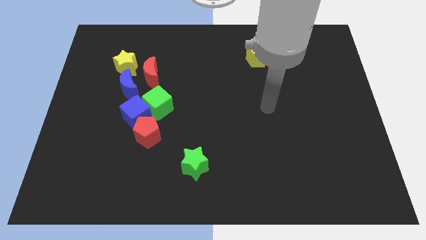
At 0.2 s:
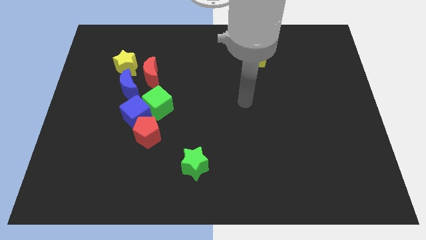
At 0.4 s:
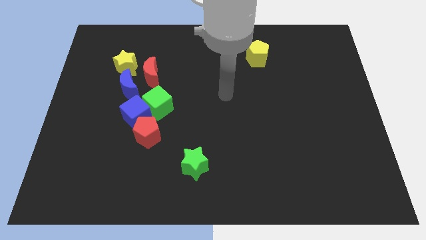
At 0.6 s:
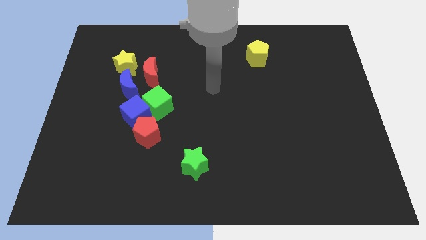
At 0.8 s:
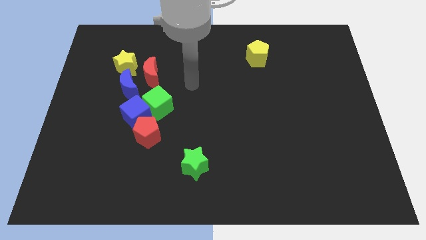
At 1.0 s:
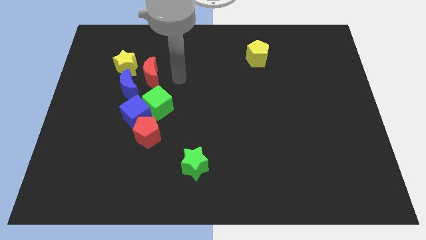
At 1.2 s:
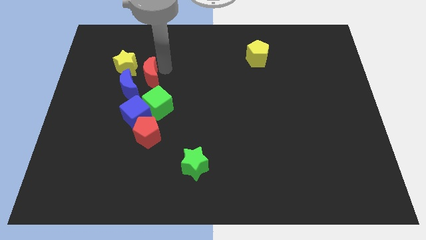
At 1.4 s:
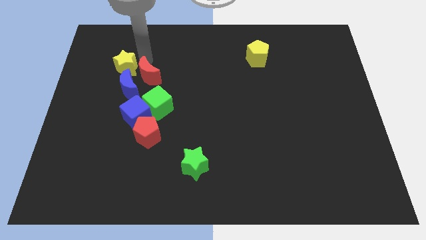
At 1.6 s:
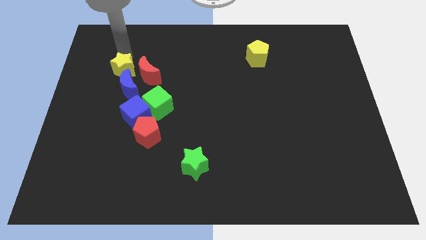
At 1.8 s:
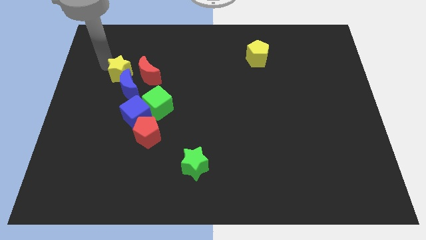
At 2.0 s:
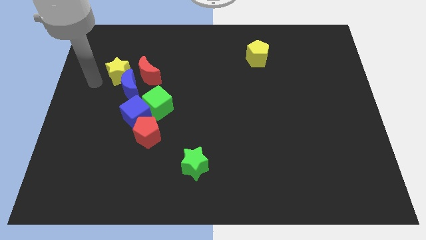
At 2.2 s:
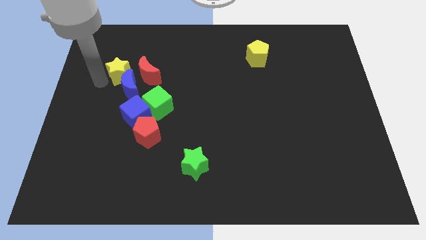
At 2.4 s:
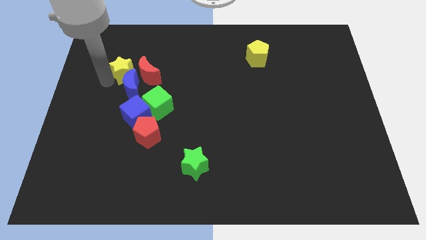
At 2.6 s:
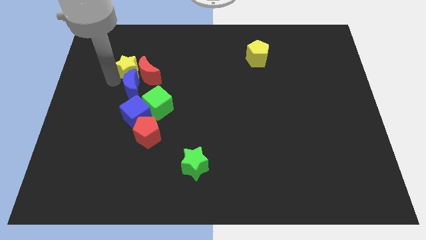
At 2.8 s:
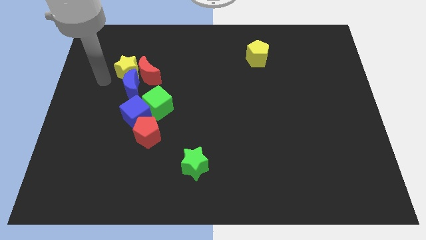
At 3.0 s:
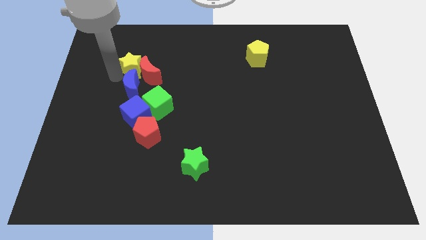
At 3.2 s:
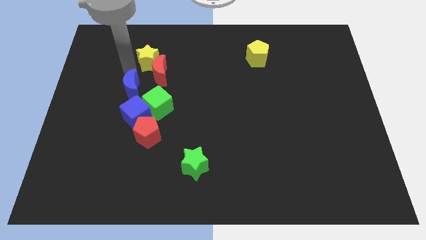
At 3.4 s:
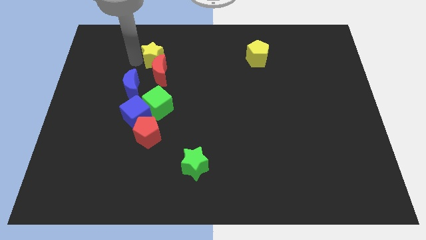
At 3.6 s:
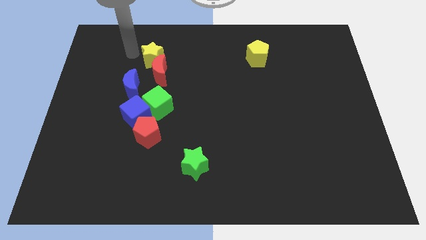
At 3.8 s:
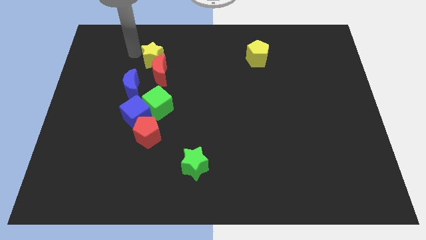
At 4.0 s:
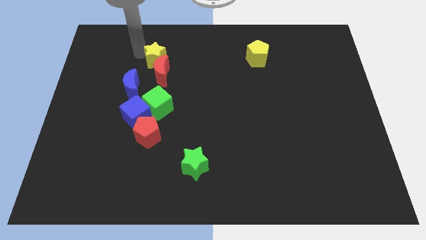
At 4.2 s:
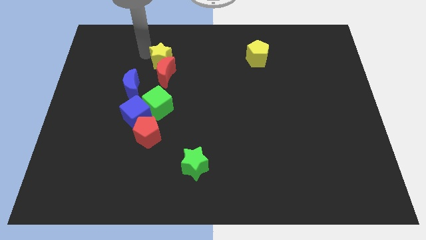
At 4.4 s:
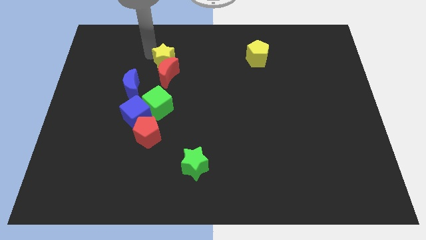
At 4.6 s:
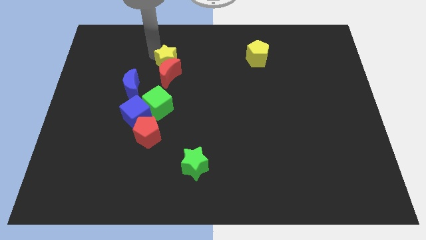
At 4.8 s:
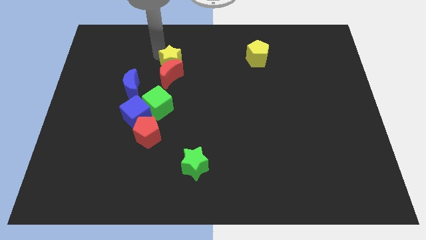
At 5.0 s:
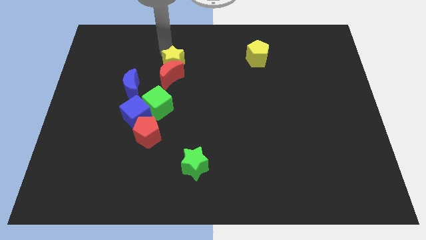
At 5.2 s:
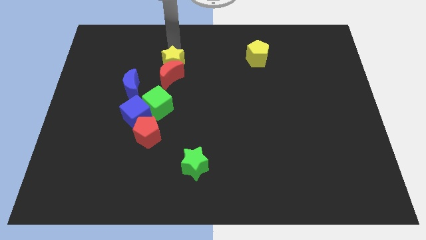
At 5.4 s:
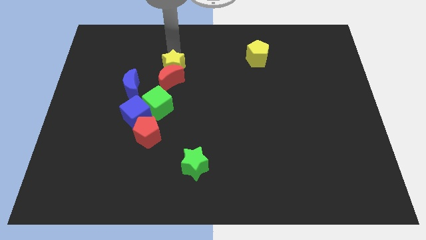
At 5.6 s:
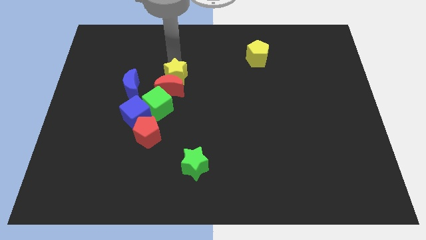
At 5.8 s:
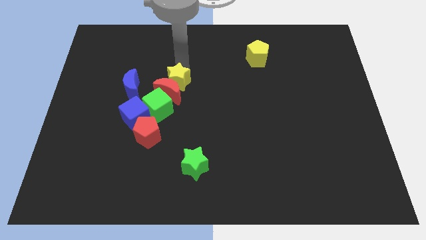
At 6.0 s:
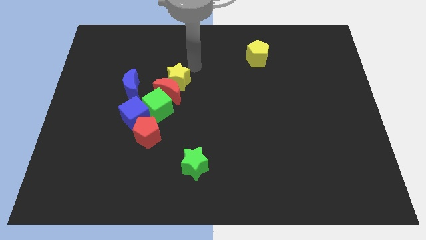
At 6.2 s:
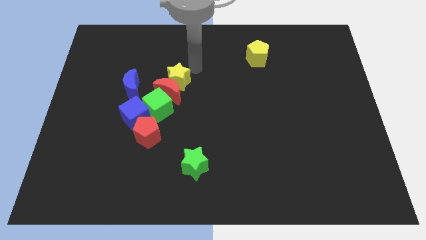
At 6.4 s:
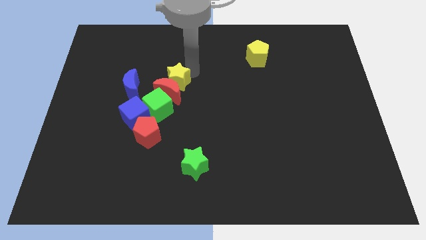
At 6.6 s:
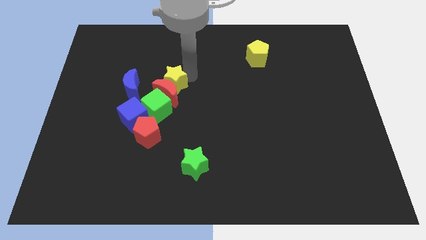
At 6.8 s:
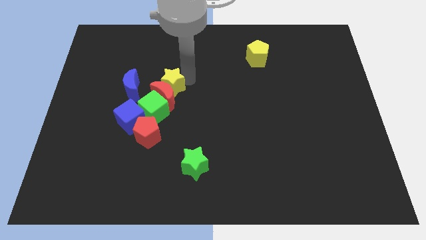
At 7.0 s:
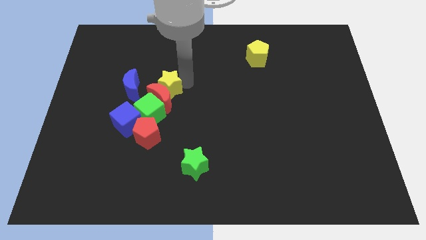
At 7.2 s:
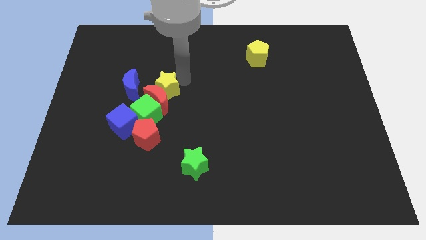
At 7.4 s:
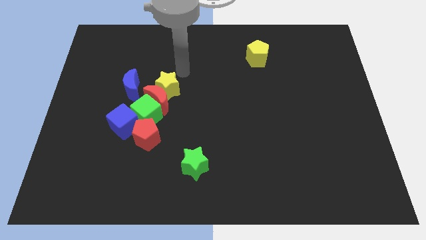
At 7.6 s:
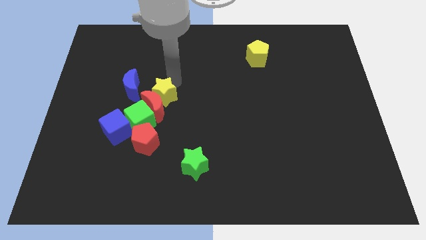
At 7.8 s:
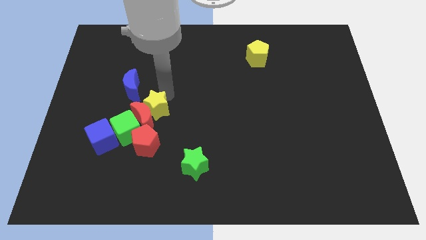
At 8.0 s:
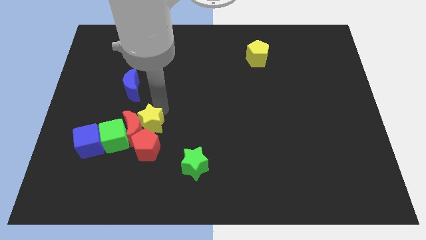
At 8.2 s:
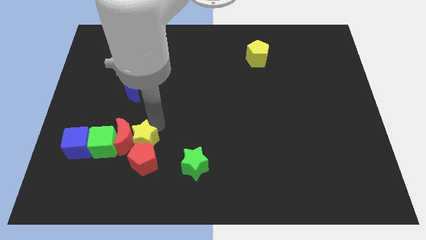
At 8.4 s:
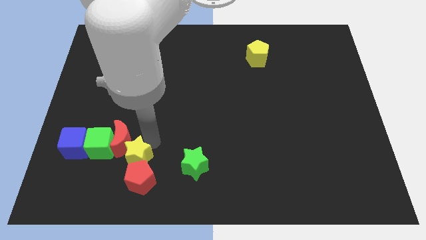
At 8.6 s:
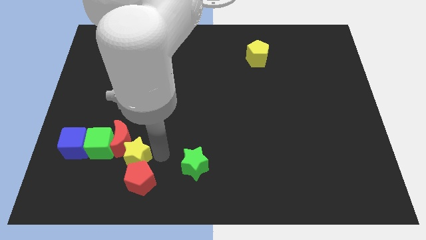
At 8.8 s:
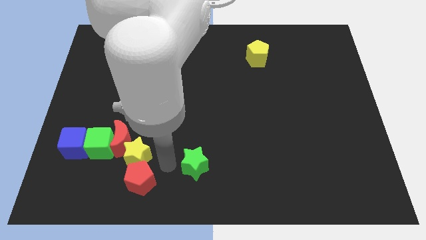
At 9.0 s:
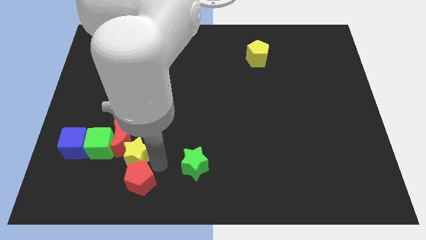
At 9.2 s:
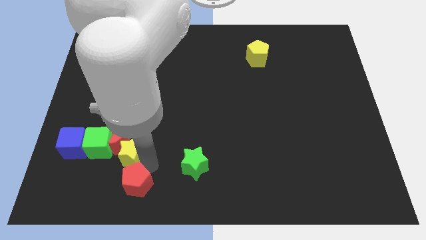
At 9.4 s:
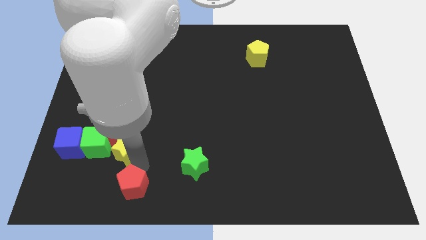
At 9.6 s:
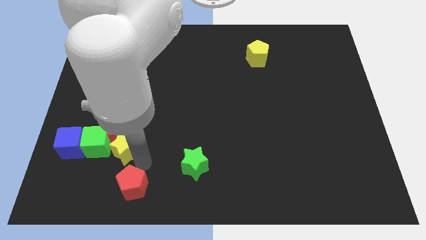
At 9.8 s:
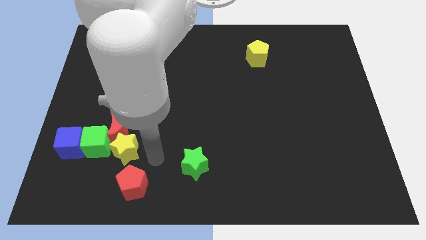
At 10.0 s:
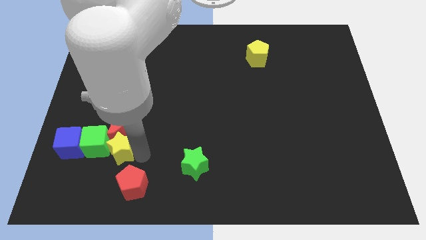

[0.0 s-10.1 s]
move the yellow star close to the green cube

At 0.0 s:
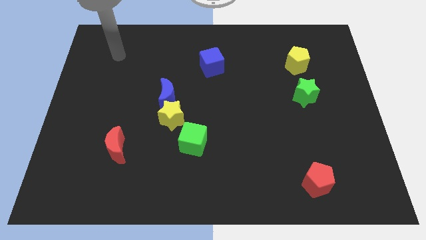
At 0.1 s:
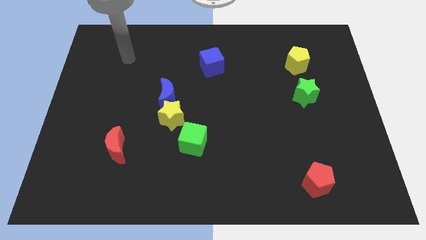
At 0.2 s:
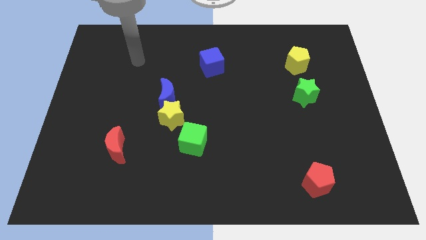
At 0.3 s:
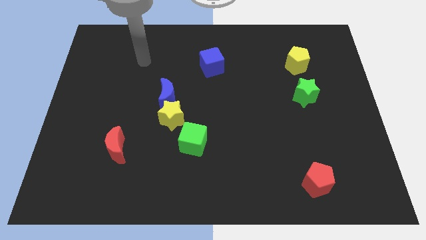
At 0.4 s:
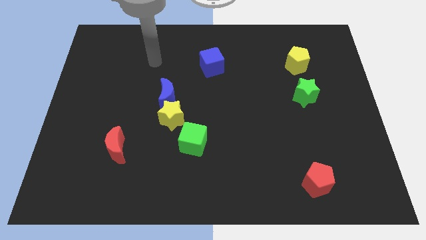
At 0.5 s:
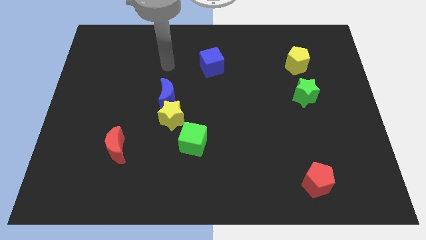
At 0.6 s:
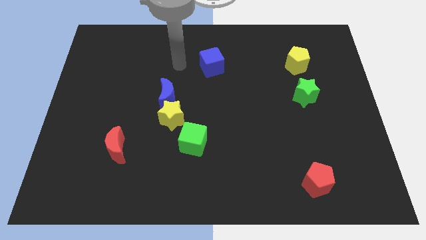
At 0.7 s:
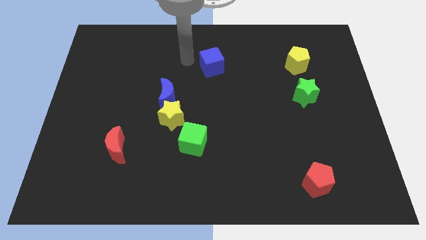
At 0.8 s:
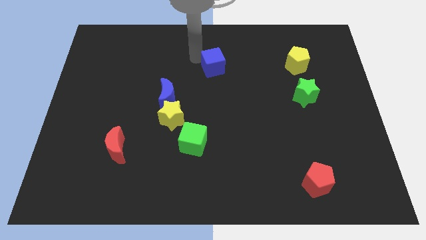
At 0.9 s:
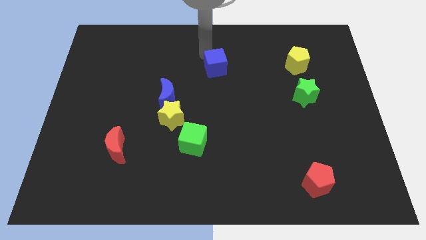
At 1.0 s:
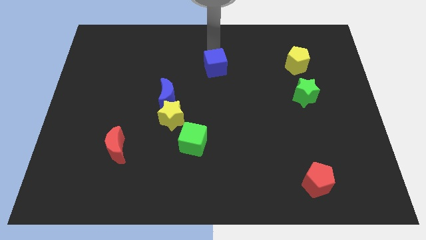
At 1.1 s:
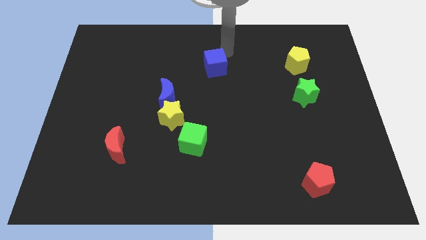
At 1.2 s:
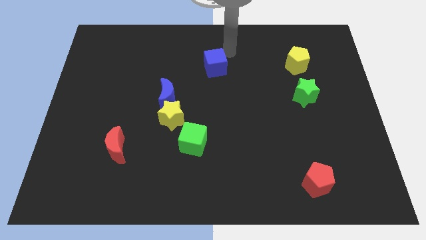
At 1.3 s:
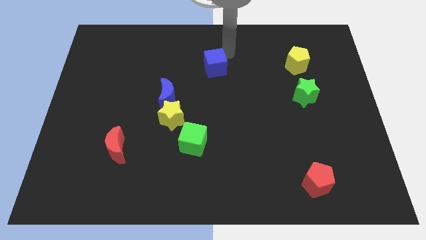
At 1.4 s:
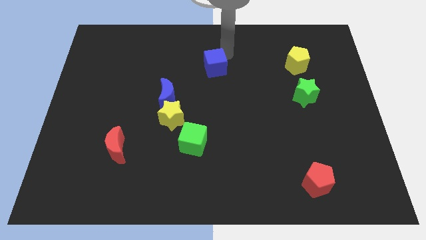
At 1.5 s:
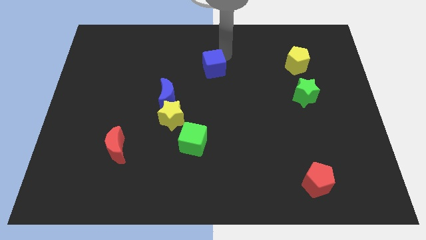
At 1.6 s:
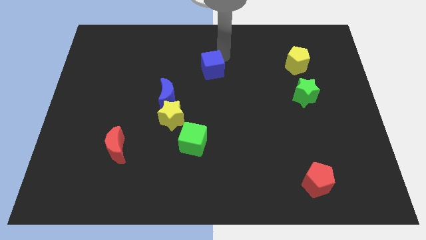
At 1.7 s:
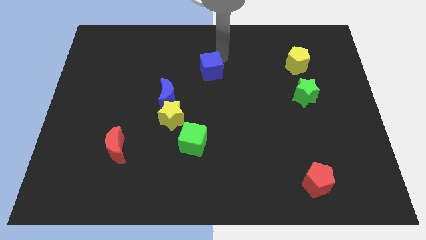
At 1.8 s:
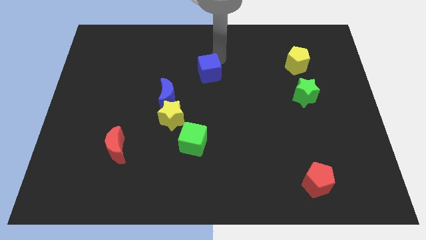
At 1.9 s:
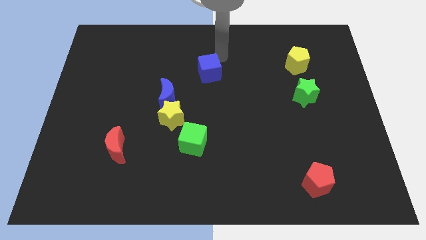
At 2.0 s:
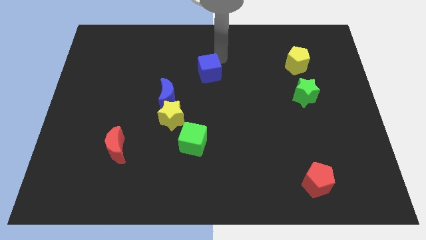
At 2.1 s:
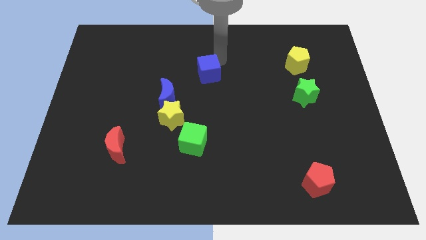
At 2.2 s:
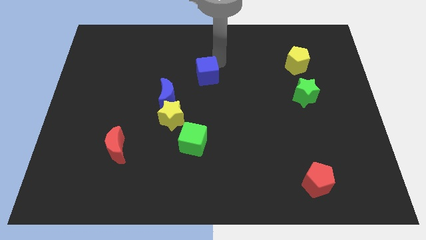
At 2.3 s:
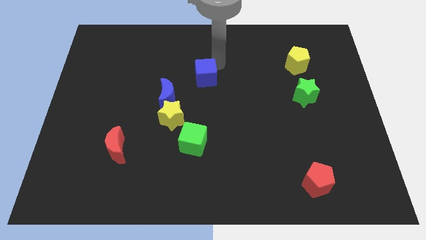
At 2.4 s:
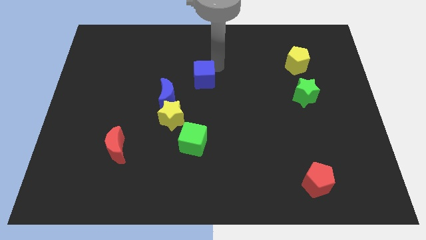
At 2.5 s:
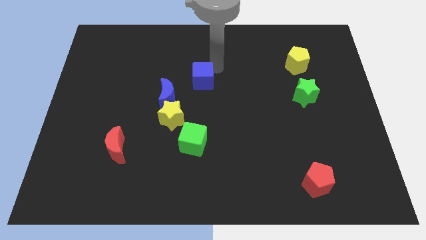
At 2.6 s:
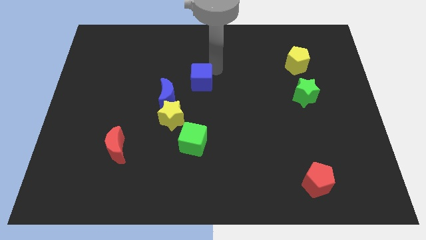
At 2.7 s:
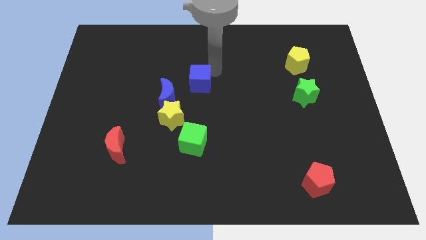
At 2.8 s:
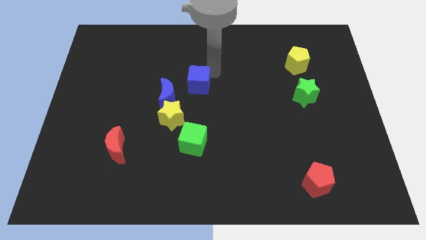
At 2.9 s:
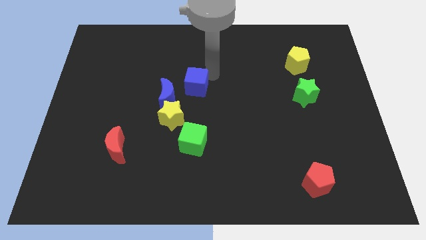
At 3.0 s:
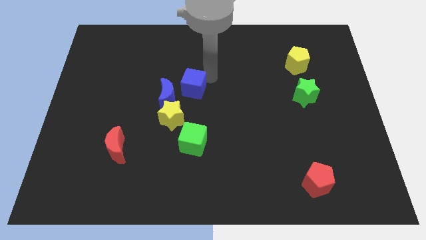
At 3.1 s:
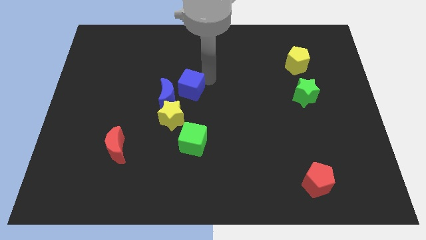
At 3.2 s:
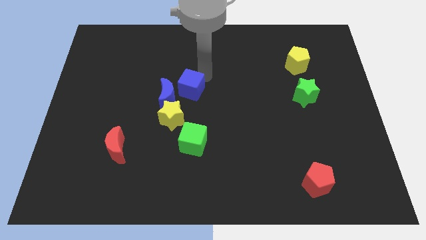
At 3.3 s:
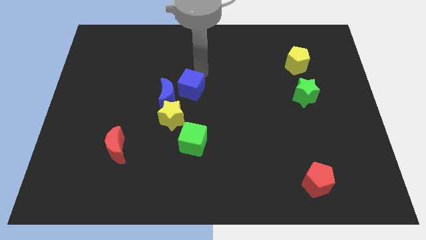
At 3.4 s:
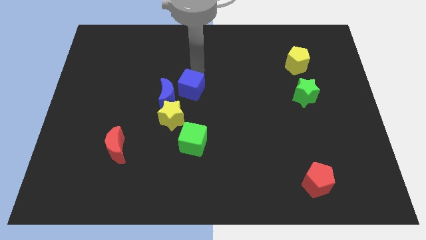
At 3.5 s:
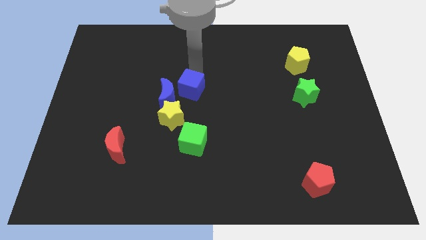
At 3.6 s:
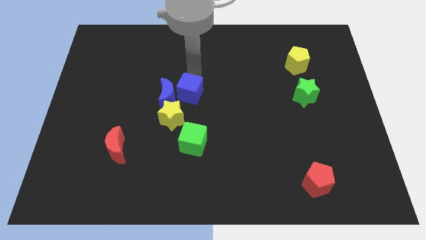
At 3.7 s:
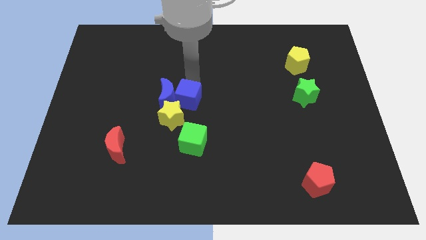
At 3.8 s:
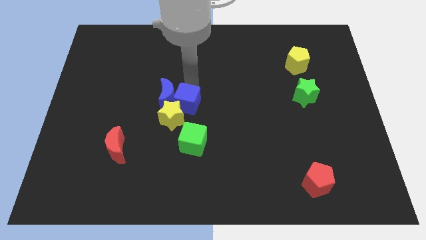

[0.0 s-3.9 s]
push the blue cube close to the yellow star
